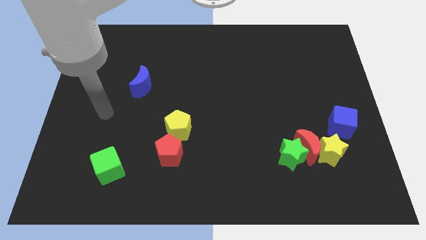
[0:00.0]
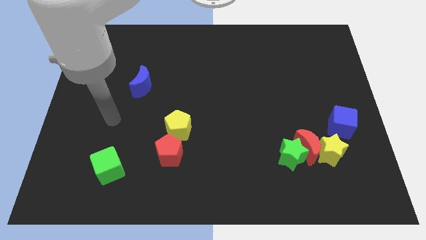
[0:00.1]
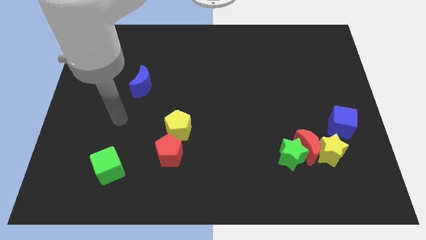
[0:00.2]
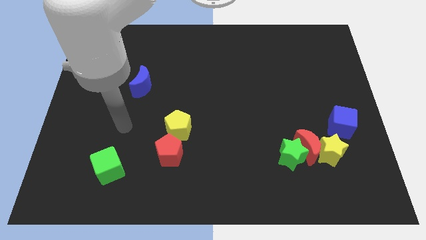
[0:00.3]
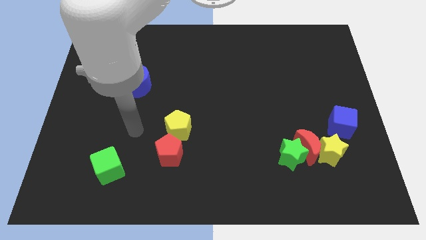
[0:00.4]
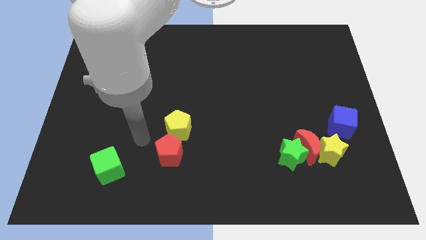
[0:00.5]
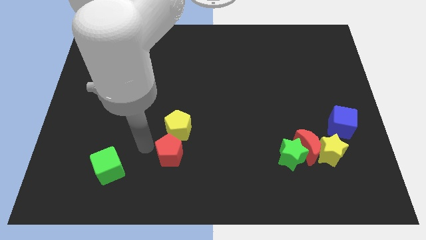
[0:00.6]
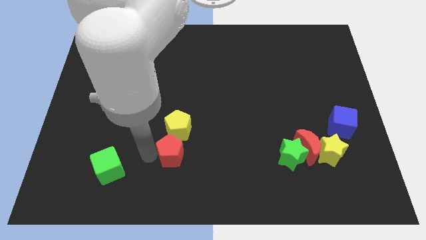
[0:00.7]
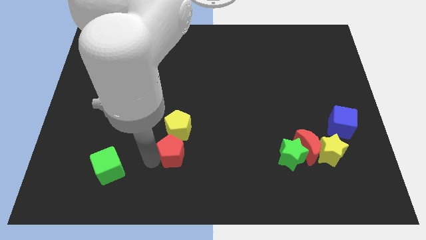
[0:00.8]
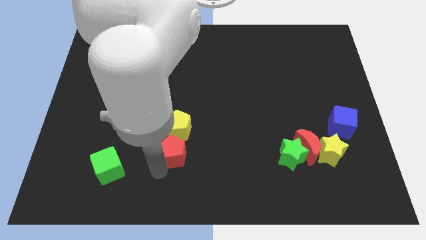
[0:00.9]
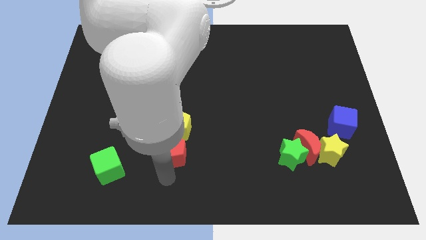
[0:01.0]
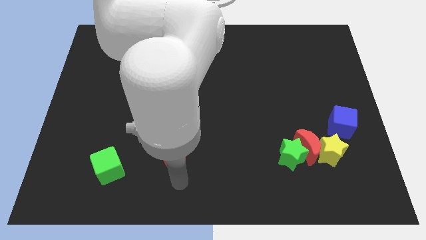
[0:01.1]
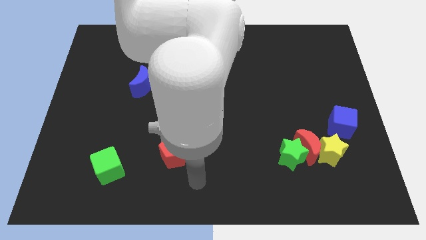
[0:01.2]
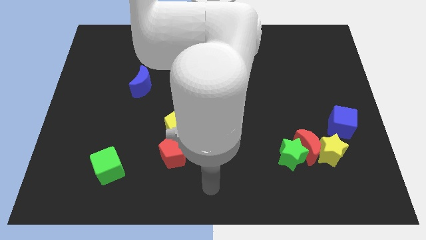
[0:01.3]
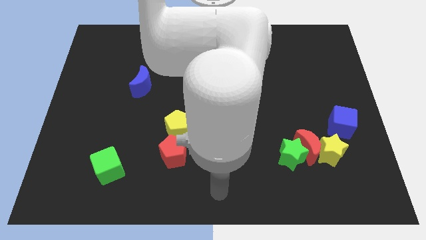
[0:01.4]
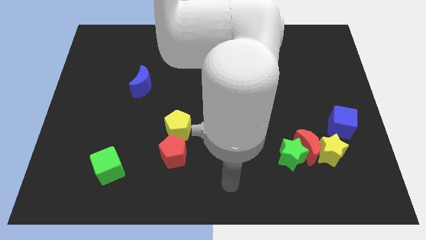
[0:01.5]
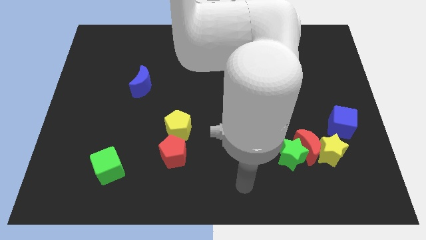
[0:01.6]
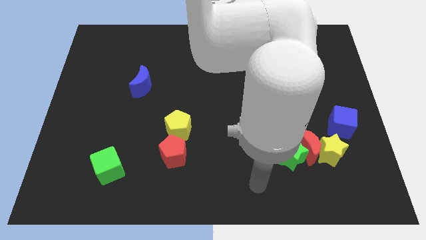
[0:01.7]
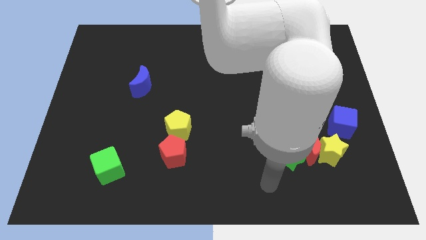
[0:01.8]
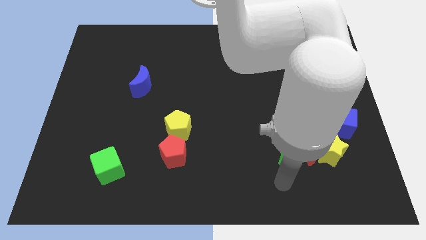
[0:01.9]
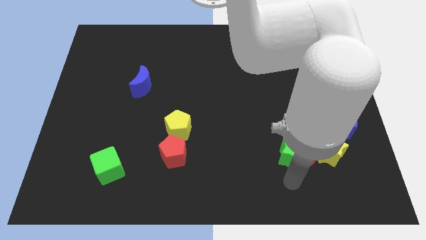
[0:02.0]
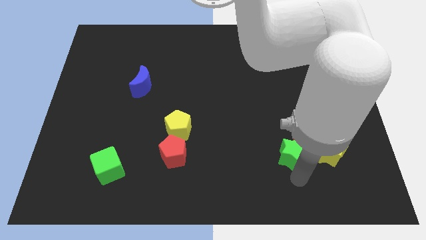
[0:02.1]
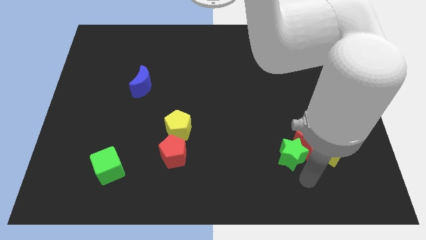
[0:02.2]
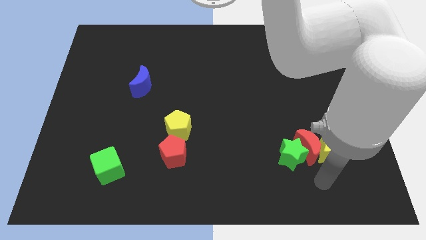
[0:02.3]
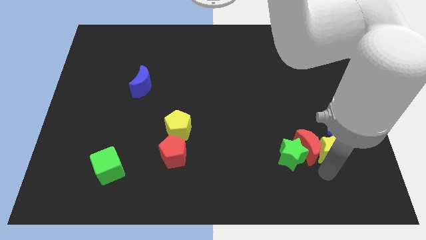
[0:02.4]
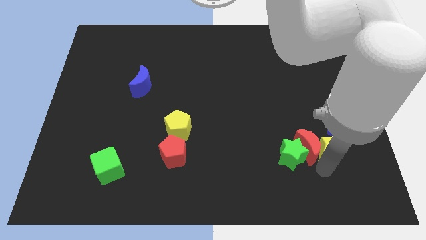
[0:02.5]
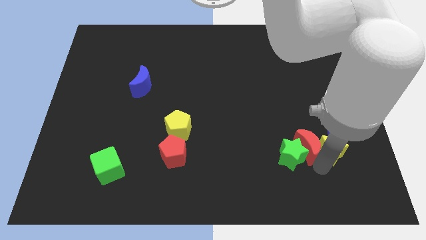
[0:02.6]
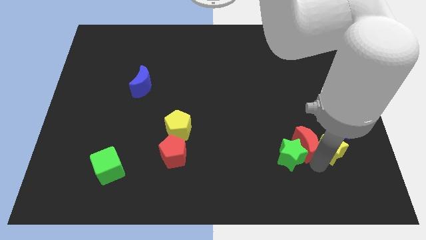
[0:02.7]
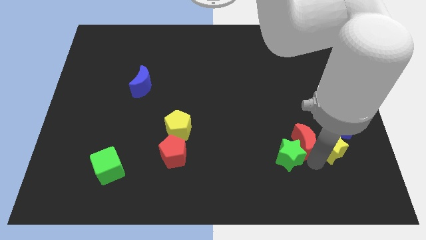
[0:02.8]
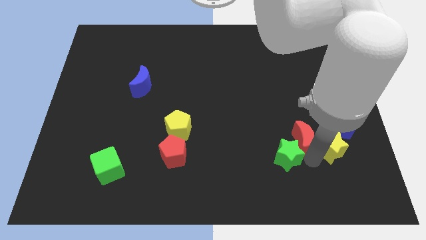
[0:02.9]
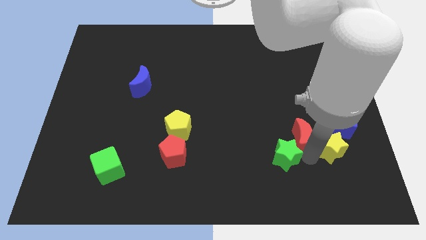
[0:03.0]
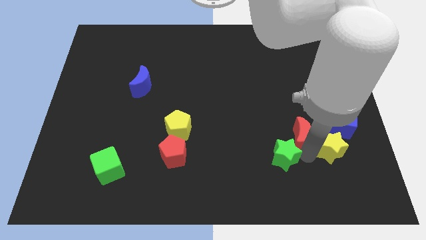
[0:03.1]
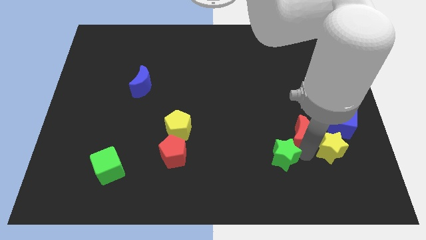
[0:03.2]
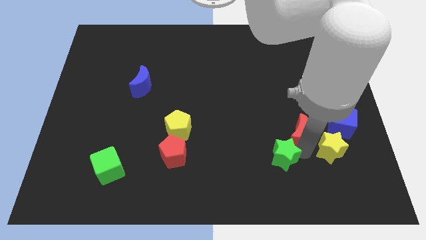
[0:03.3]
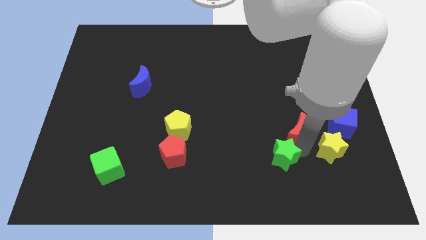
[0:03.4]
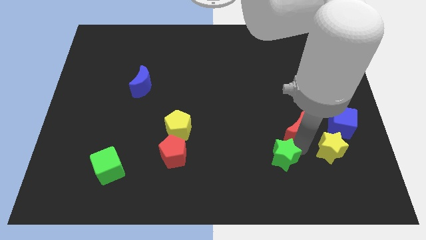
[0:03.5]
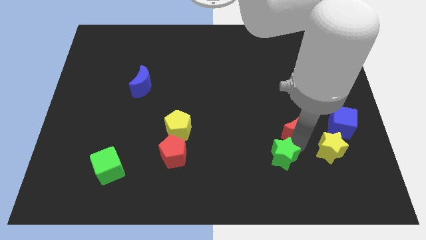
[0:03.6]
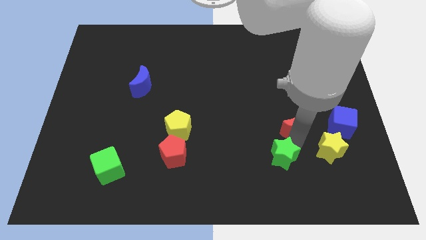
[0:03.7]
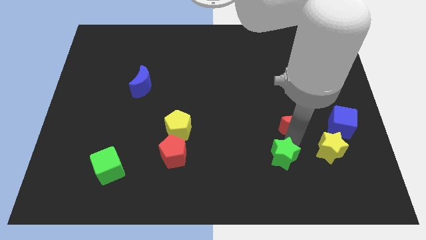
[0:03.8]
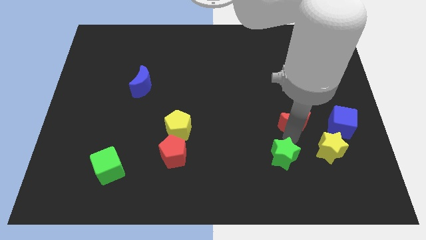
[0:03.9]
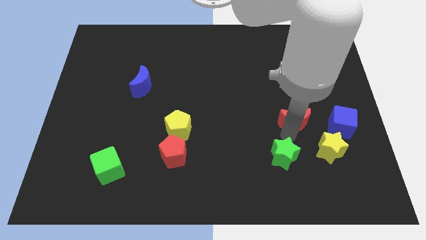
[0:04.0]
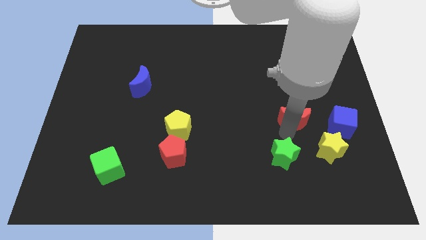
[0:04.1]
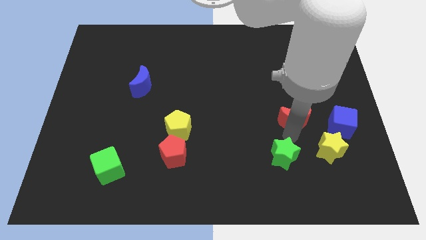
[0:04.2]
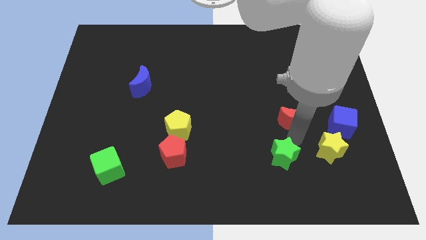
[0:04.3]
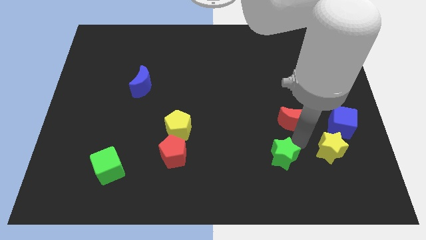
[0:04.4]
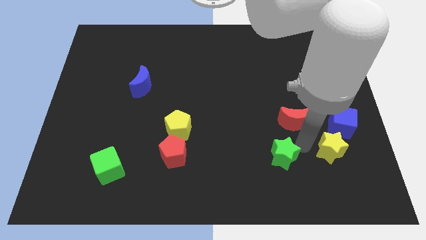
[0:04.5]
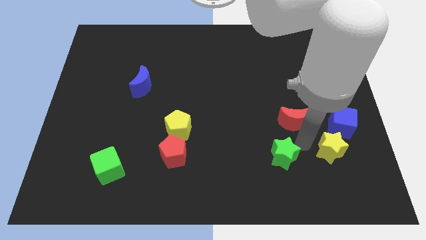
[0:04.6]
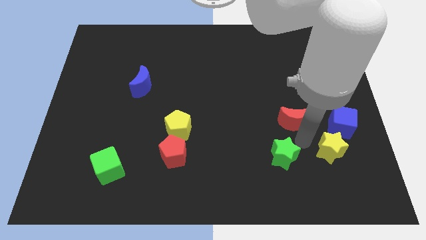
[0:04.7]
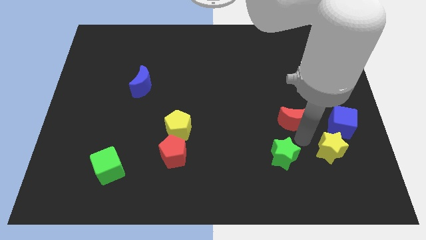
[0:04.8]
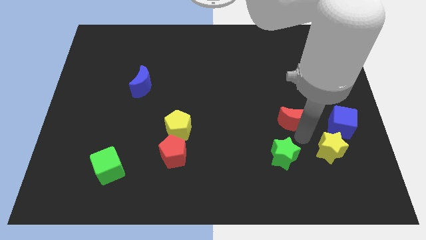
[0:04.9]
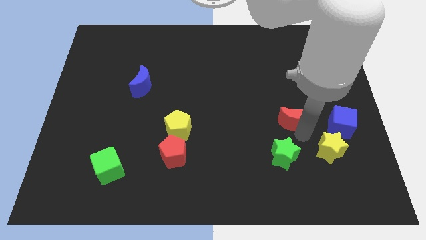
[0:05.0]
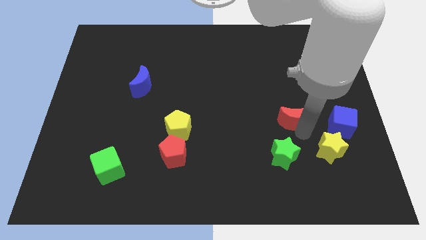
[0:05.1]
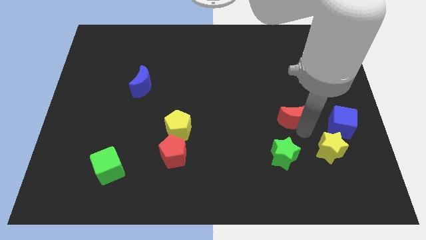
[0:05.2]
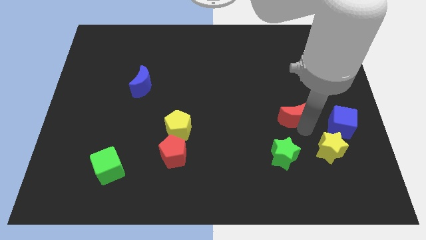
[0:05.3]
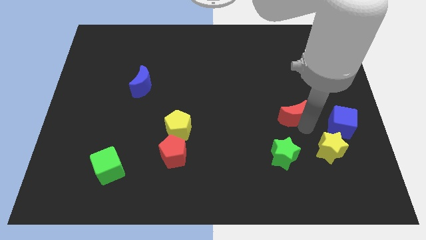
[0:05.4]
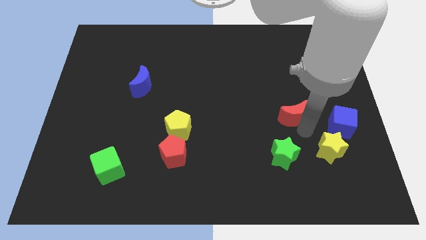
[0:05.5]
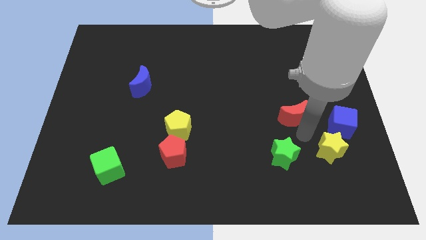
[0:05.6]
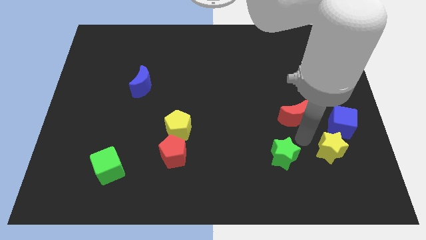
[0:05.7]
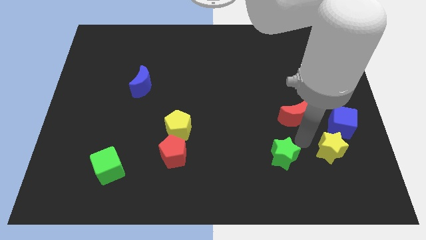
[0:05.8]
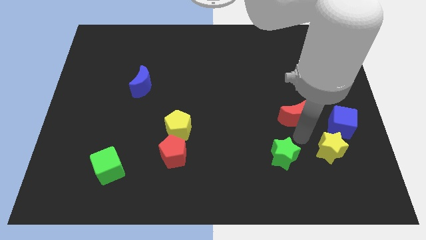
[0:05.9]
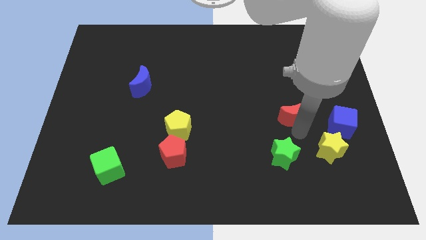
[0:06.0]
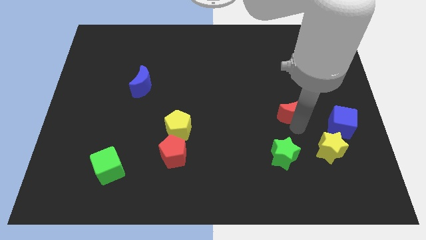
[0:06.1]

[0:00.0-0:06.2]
pull the red moon apart from the green star and yellow star

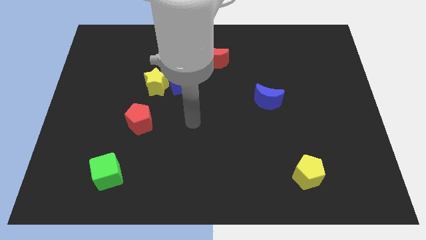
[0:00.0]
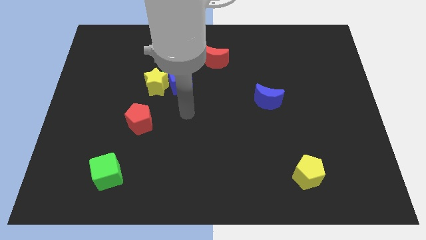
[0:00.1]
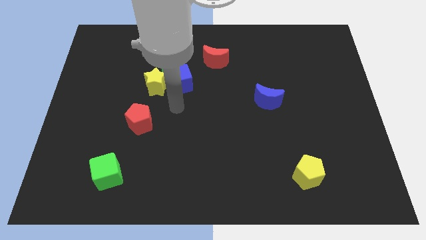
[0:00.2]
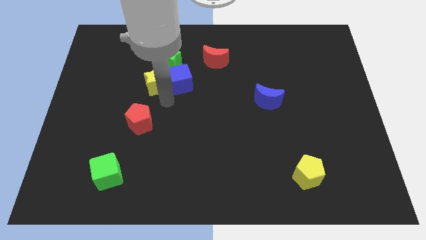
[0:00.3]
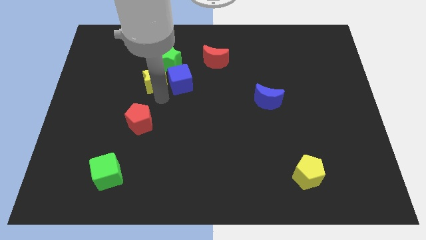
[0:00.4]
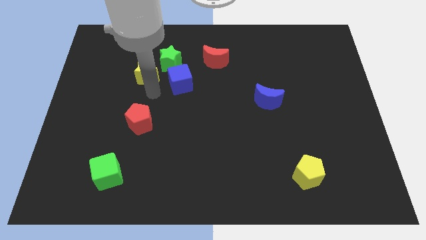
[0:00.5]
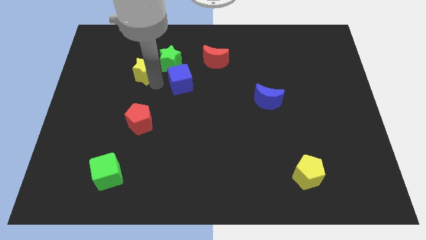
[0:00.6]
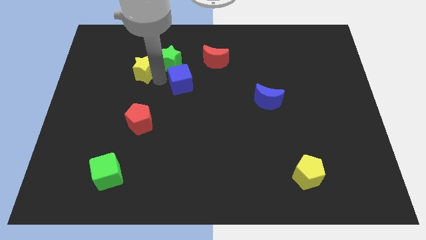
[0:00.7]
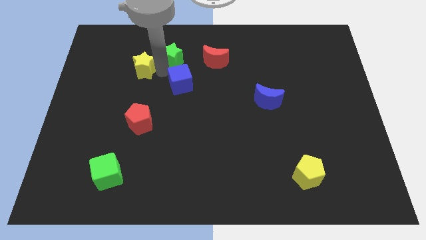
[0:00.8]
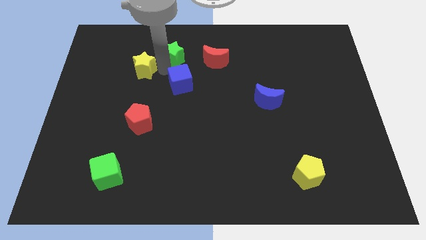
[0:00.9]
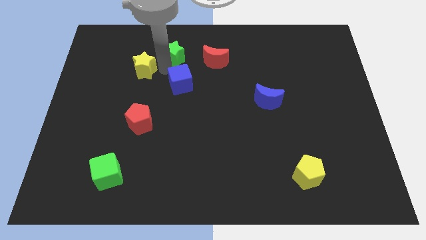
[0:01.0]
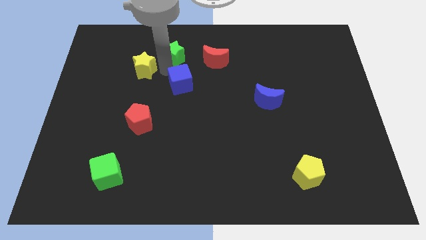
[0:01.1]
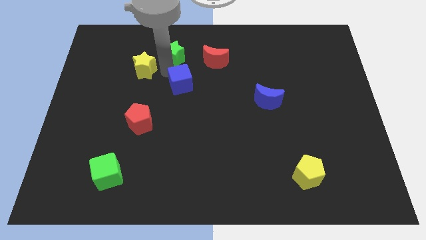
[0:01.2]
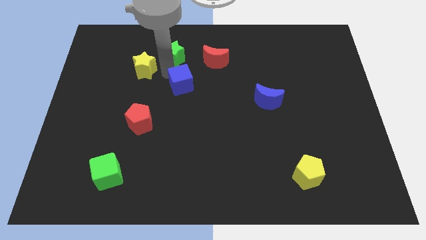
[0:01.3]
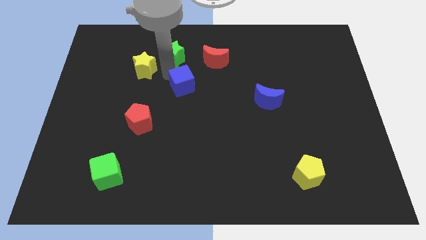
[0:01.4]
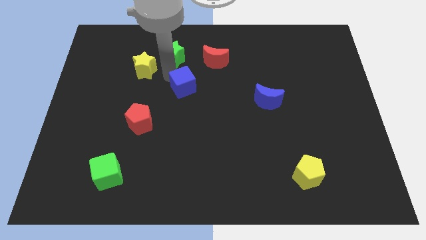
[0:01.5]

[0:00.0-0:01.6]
separate the blue cube from the yellow star and green star

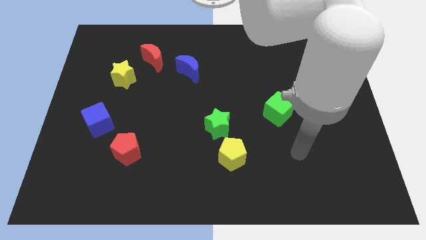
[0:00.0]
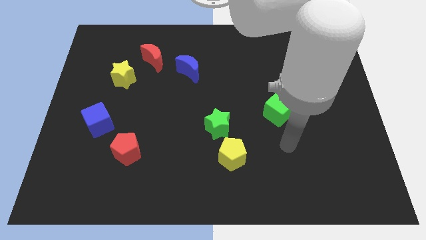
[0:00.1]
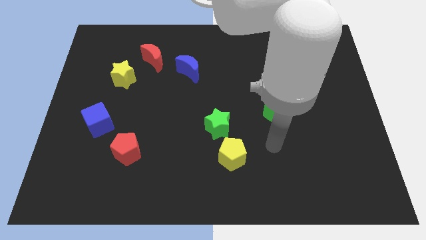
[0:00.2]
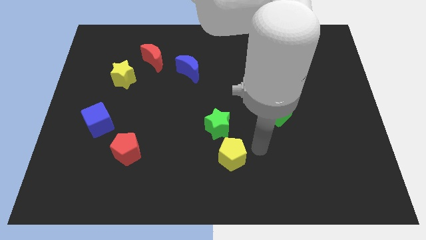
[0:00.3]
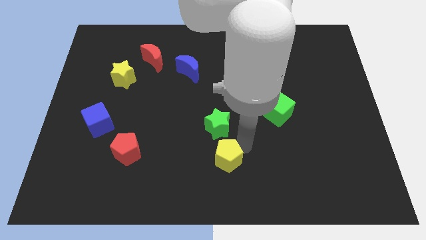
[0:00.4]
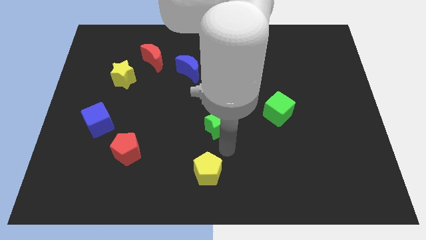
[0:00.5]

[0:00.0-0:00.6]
separate the green star from the yellow pentagon

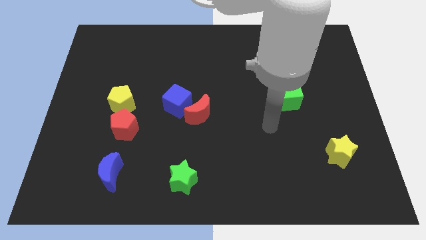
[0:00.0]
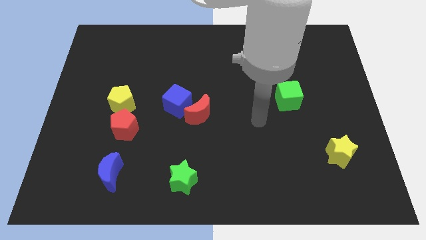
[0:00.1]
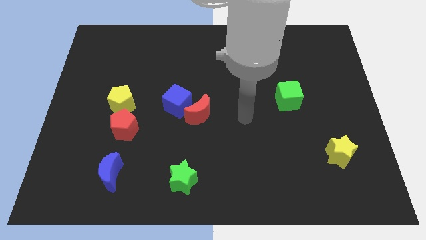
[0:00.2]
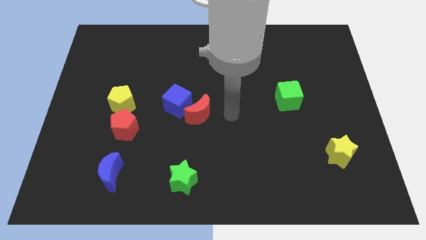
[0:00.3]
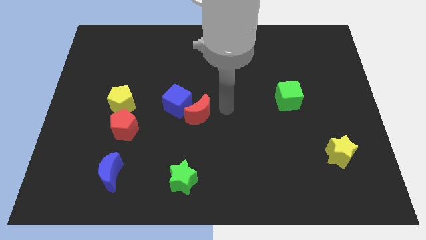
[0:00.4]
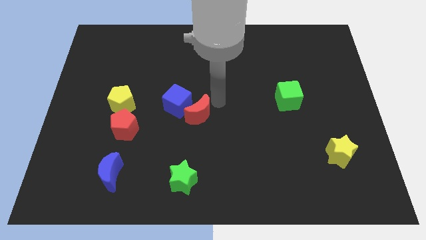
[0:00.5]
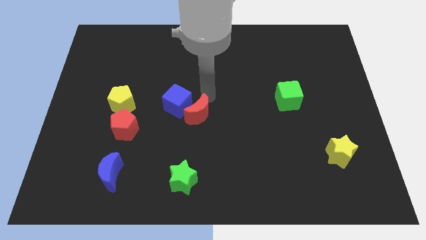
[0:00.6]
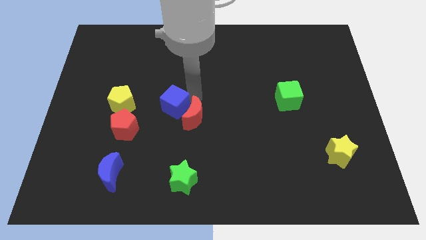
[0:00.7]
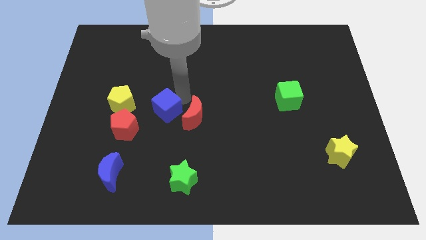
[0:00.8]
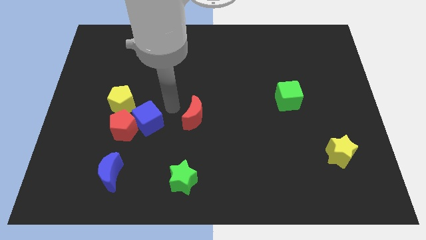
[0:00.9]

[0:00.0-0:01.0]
separate the red moon from the blue cube
